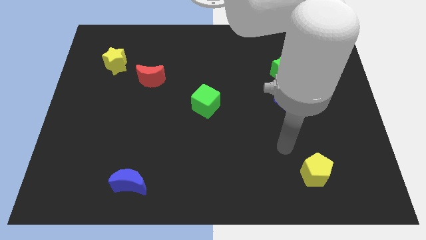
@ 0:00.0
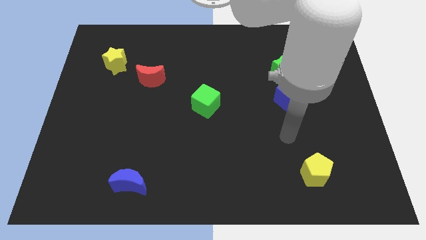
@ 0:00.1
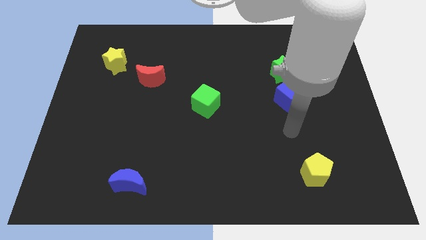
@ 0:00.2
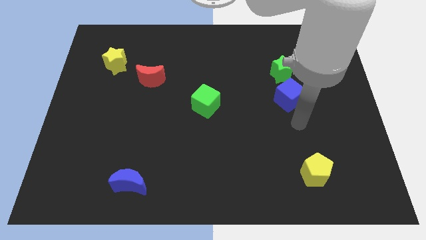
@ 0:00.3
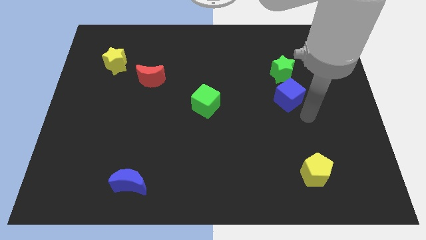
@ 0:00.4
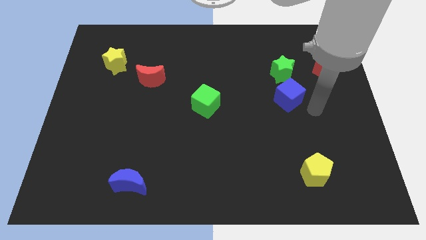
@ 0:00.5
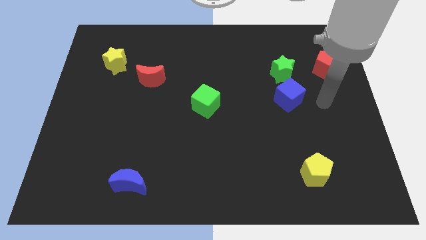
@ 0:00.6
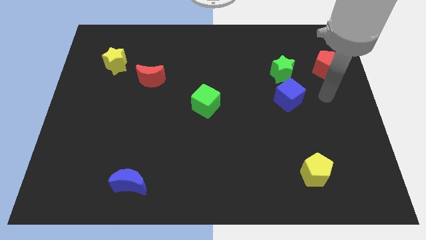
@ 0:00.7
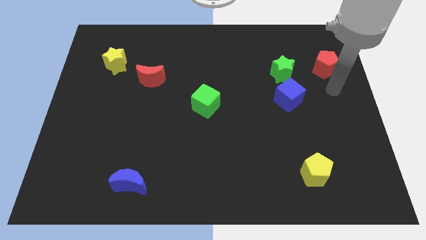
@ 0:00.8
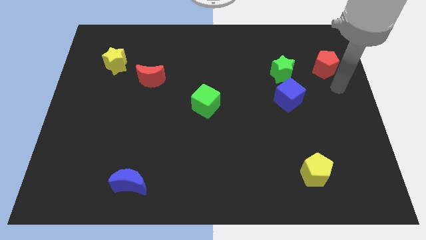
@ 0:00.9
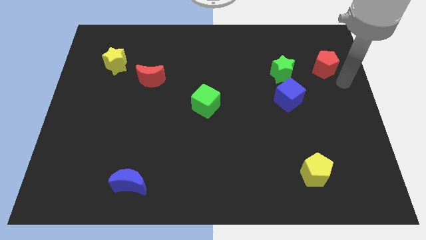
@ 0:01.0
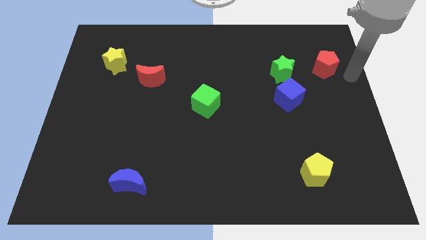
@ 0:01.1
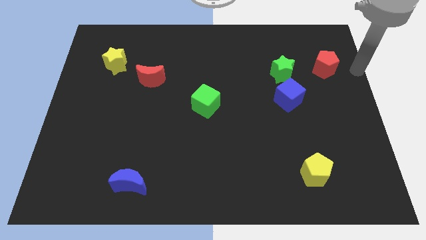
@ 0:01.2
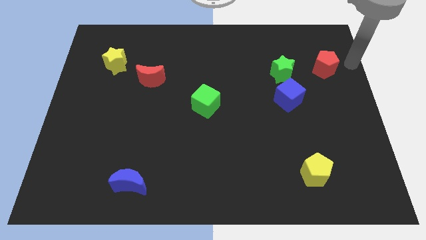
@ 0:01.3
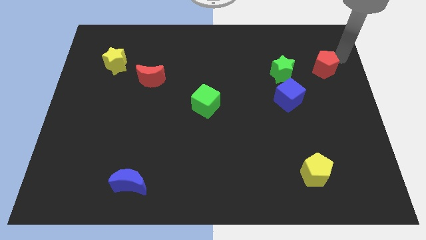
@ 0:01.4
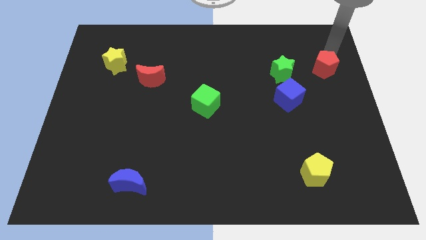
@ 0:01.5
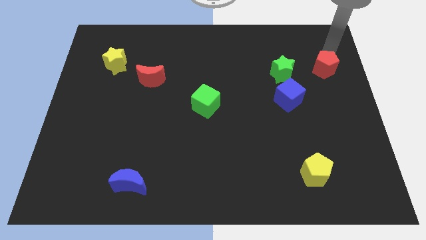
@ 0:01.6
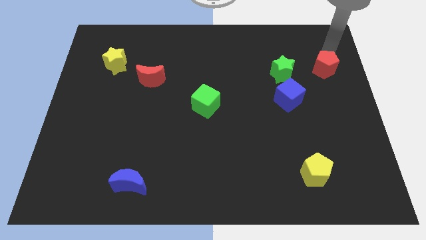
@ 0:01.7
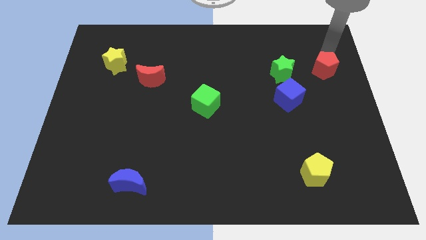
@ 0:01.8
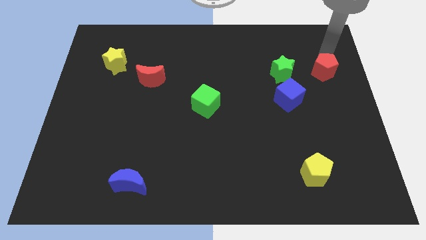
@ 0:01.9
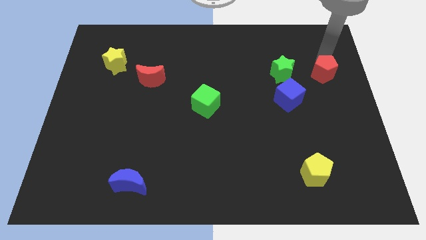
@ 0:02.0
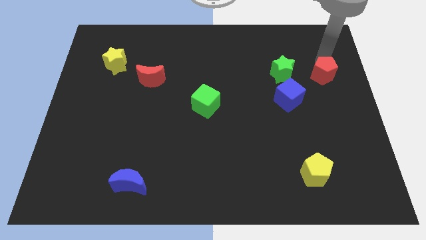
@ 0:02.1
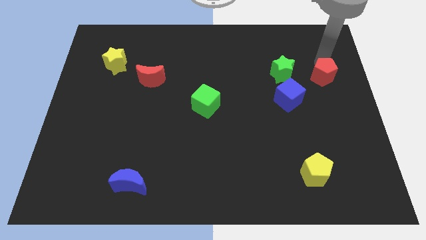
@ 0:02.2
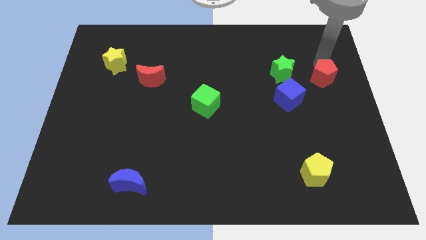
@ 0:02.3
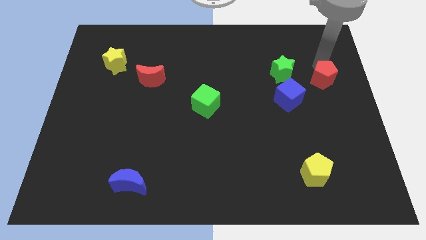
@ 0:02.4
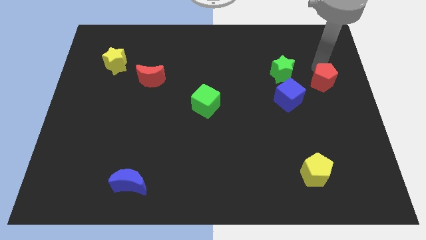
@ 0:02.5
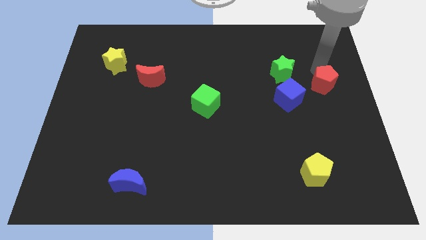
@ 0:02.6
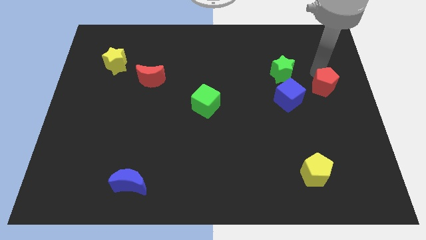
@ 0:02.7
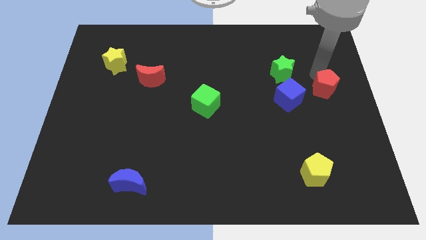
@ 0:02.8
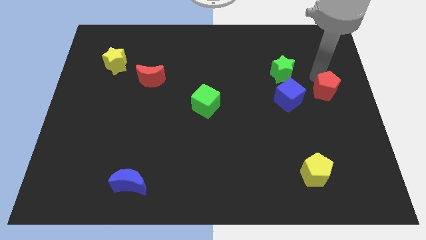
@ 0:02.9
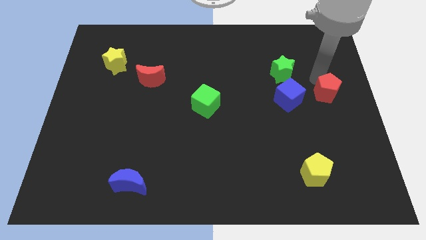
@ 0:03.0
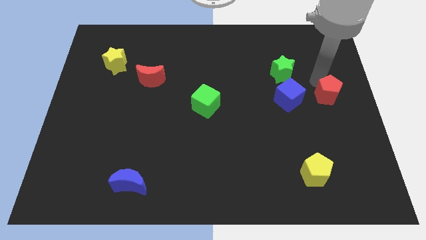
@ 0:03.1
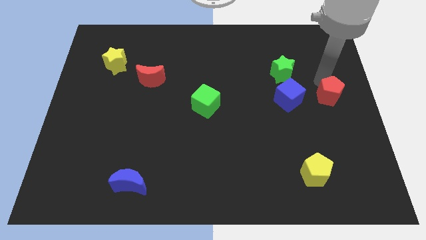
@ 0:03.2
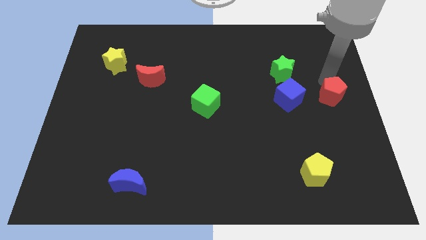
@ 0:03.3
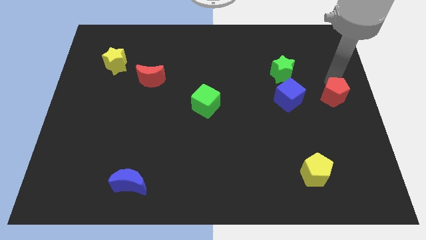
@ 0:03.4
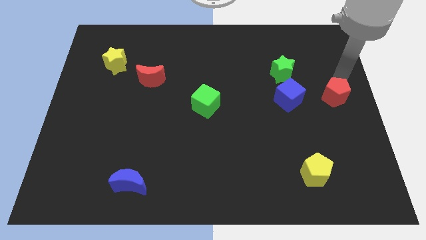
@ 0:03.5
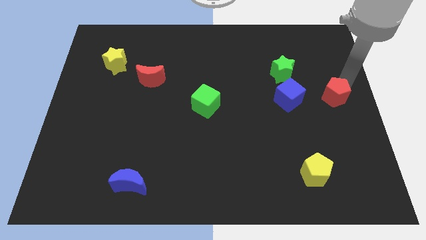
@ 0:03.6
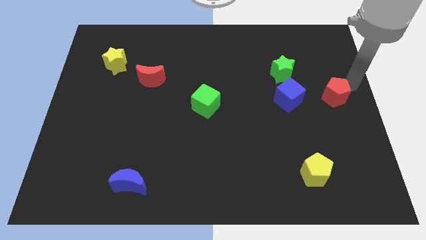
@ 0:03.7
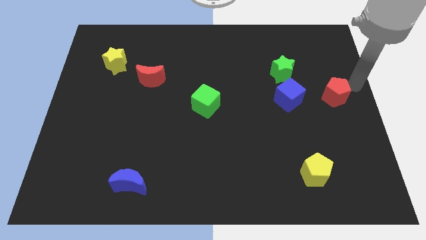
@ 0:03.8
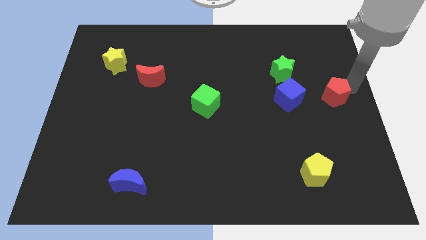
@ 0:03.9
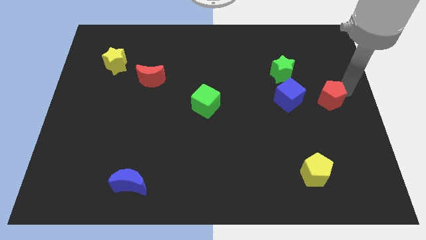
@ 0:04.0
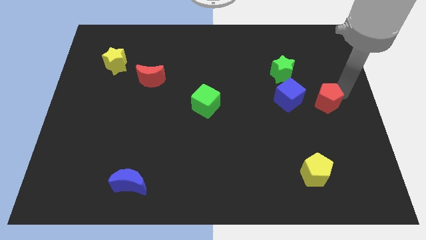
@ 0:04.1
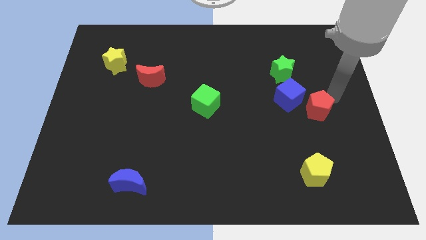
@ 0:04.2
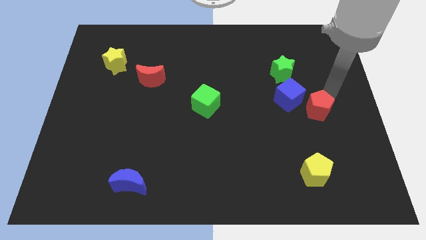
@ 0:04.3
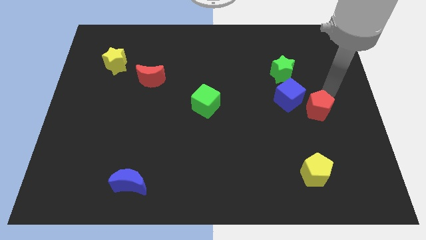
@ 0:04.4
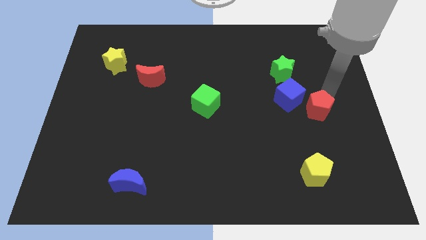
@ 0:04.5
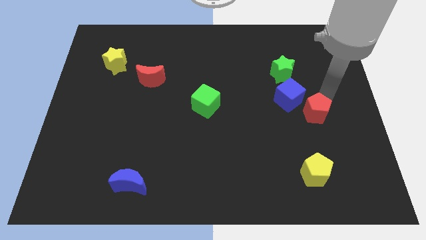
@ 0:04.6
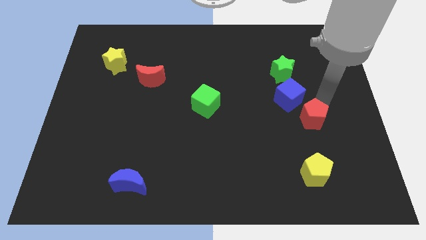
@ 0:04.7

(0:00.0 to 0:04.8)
push the red pentagon to the top of the yellow pentagon

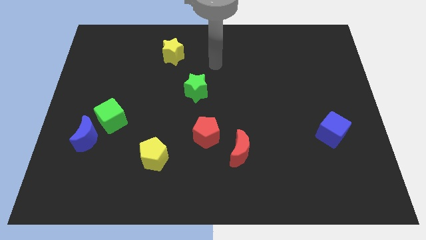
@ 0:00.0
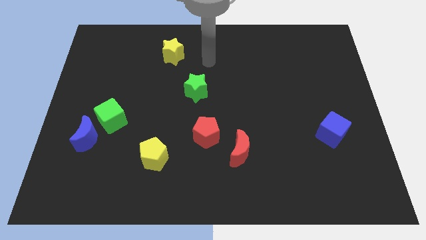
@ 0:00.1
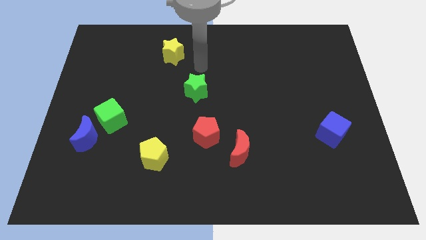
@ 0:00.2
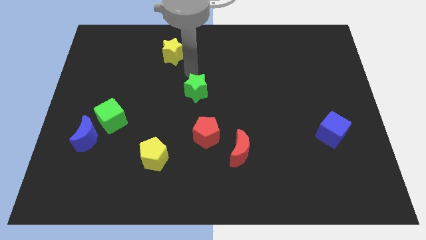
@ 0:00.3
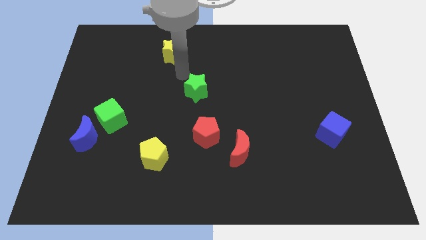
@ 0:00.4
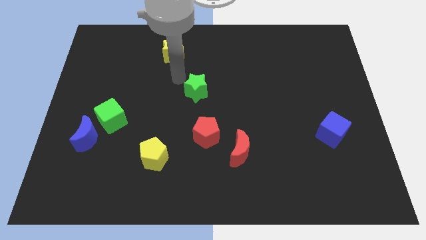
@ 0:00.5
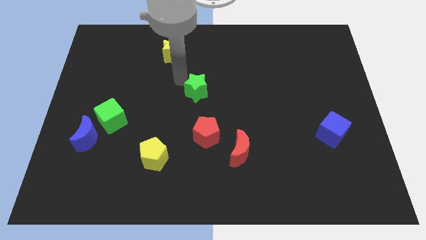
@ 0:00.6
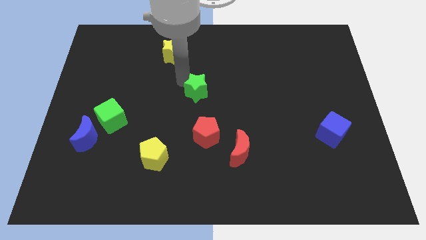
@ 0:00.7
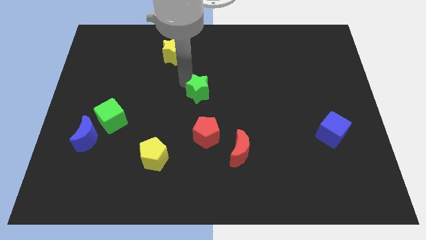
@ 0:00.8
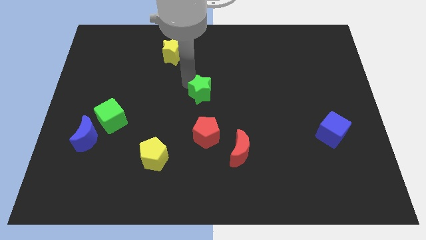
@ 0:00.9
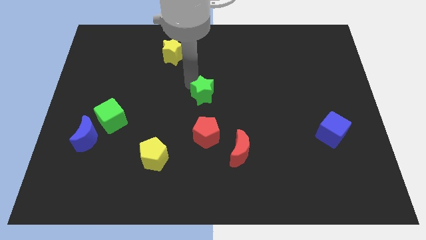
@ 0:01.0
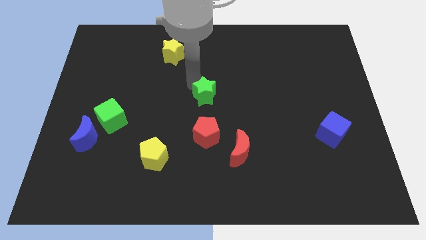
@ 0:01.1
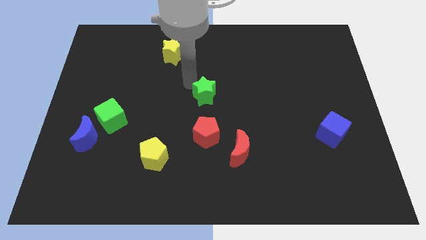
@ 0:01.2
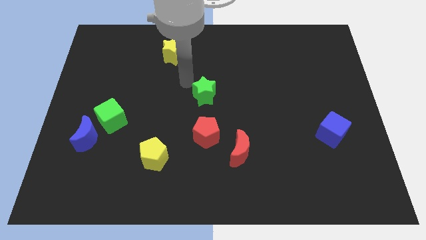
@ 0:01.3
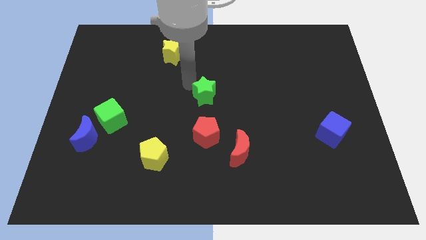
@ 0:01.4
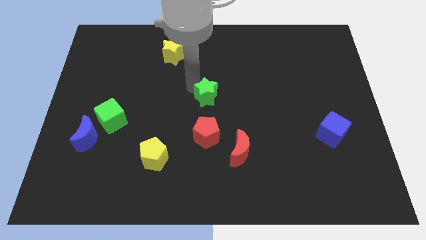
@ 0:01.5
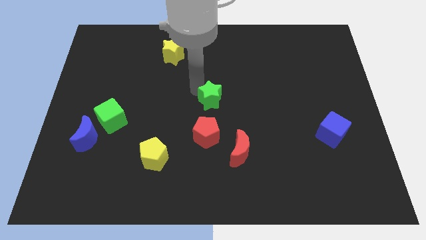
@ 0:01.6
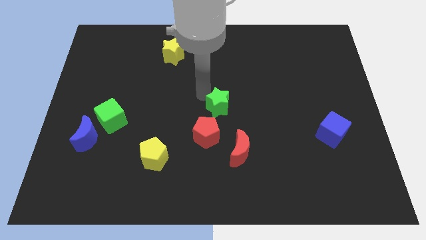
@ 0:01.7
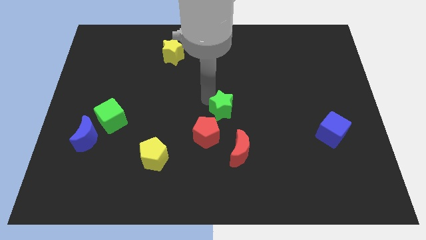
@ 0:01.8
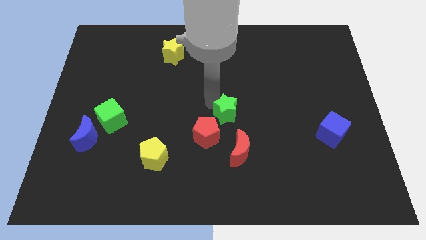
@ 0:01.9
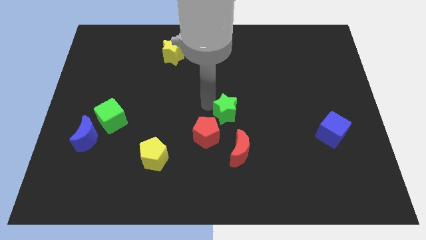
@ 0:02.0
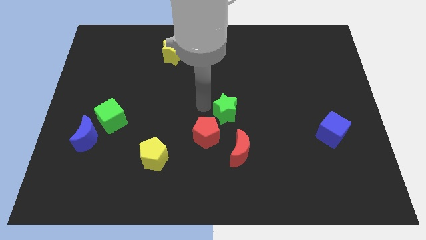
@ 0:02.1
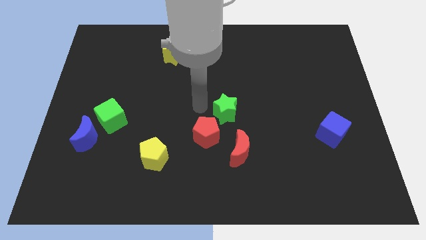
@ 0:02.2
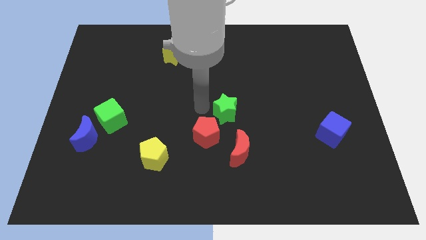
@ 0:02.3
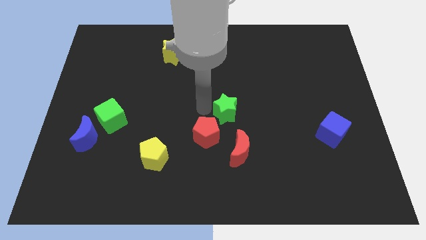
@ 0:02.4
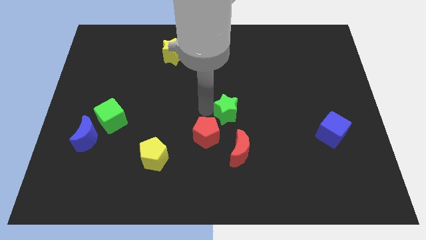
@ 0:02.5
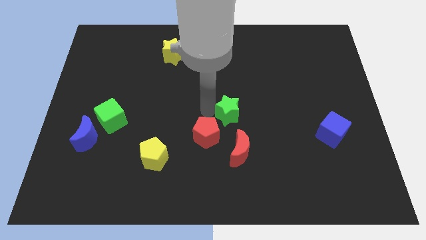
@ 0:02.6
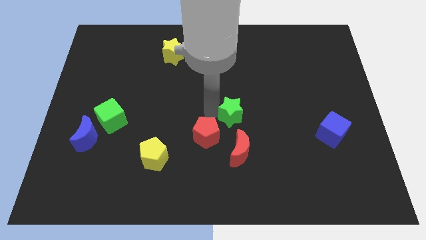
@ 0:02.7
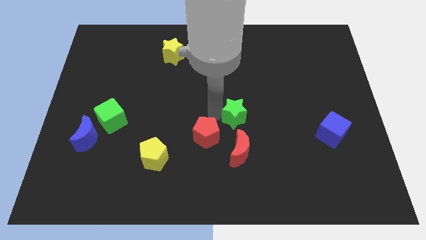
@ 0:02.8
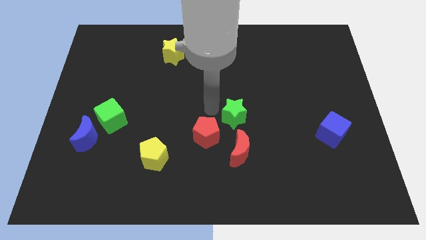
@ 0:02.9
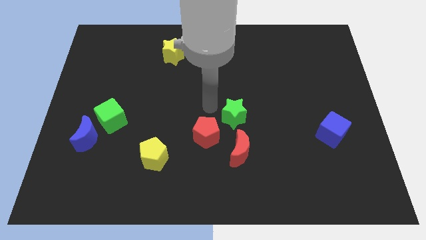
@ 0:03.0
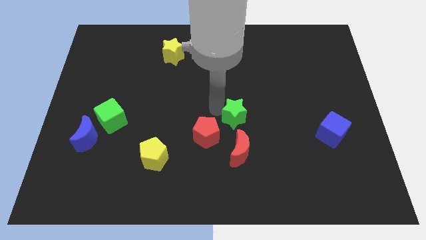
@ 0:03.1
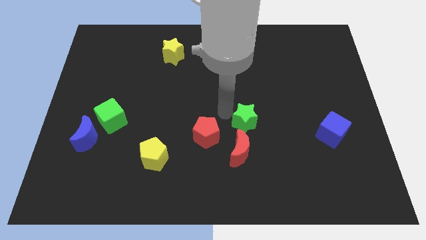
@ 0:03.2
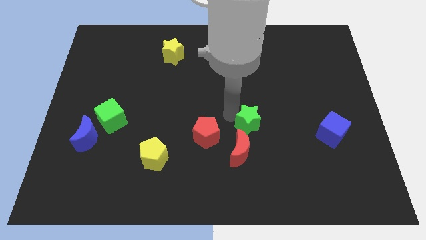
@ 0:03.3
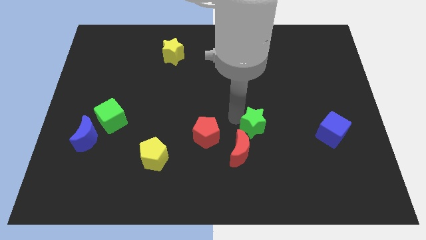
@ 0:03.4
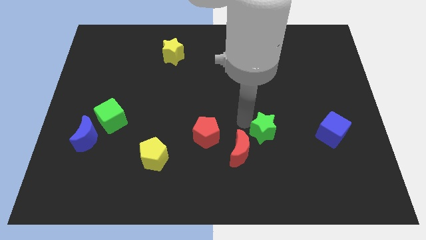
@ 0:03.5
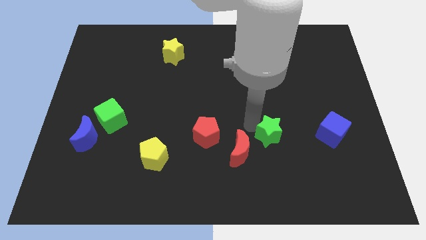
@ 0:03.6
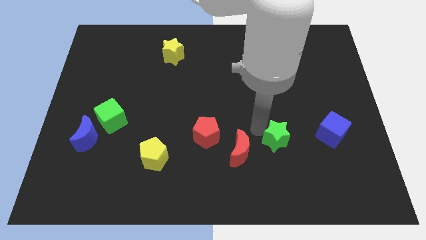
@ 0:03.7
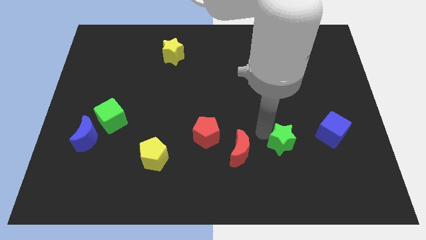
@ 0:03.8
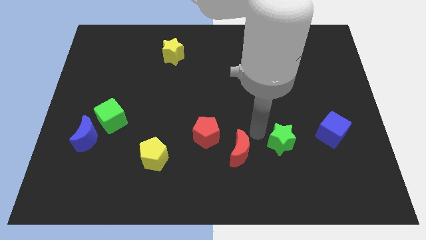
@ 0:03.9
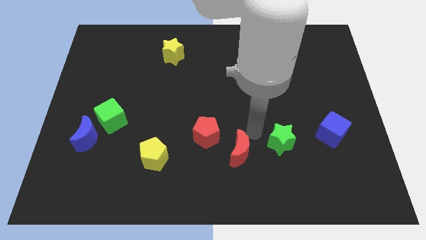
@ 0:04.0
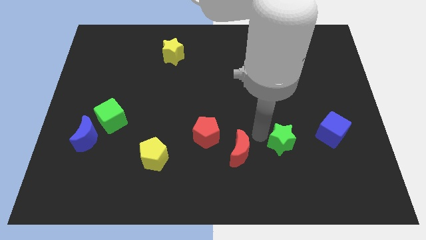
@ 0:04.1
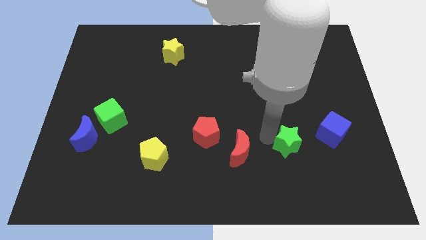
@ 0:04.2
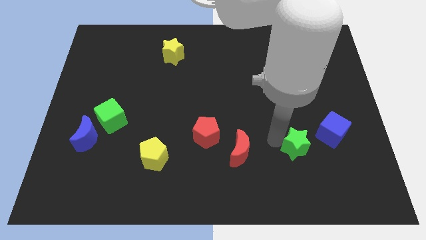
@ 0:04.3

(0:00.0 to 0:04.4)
move the green star to the bottom left of the blue cube
